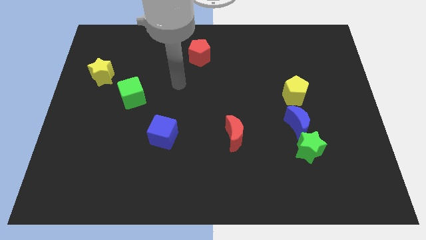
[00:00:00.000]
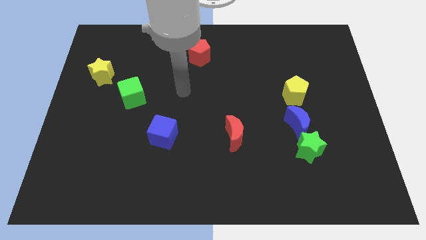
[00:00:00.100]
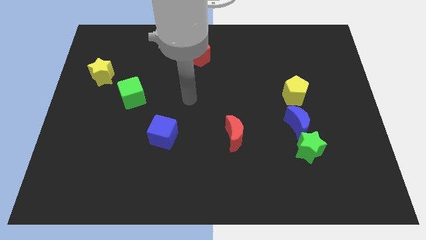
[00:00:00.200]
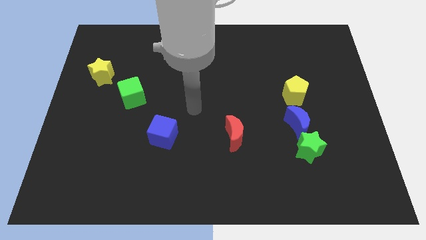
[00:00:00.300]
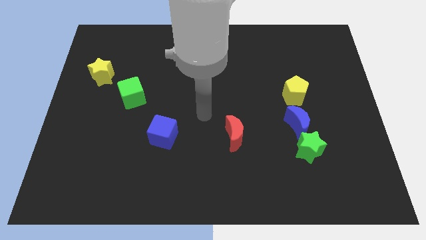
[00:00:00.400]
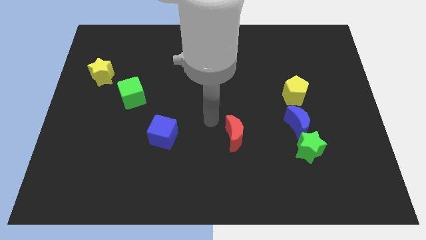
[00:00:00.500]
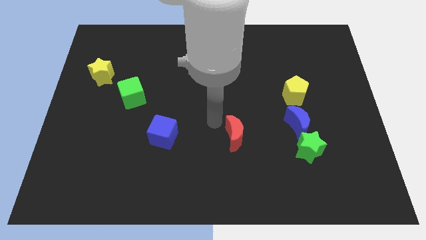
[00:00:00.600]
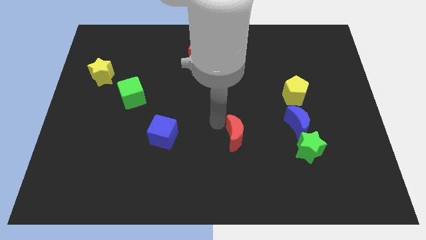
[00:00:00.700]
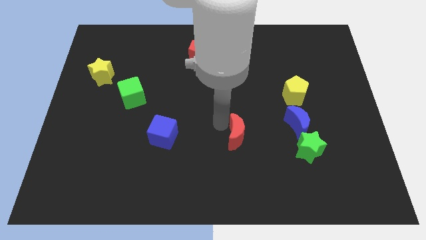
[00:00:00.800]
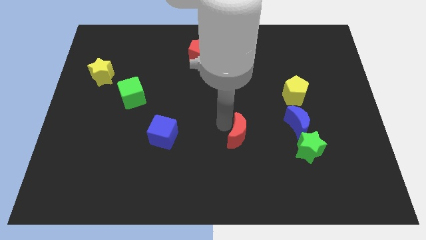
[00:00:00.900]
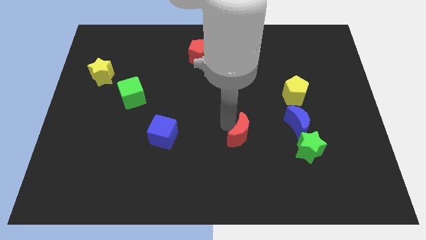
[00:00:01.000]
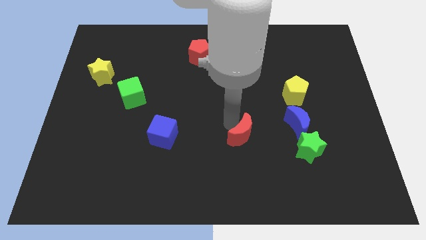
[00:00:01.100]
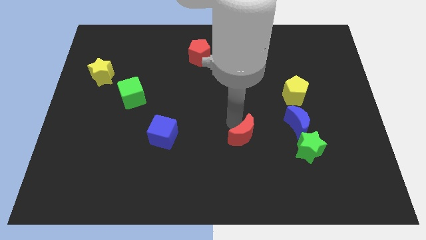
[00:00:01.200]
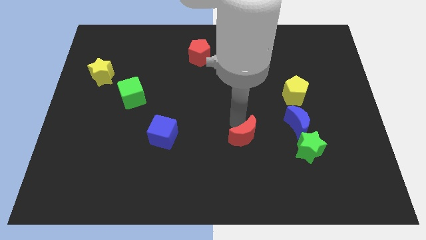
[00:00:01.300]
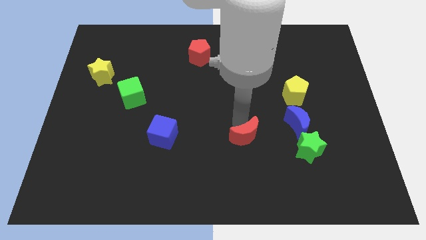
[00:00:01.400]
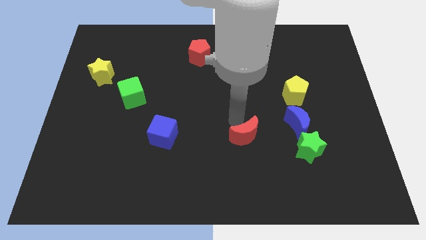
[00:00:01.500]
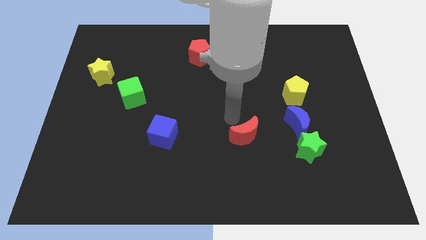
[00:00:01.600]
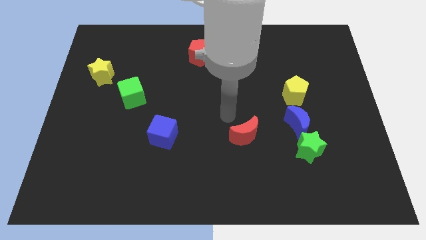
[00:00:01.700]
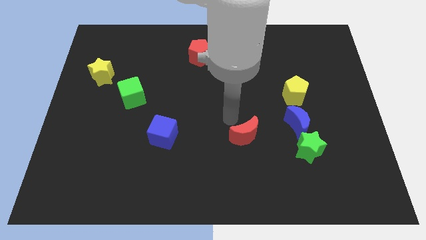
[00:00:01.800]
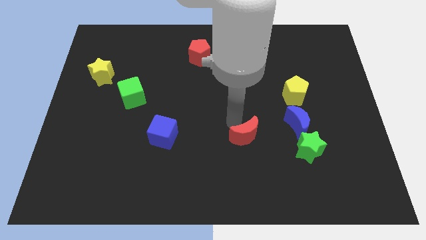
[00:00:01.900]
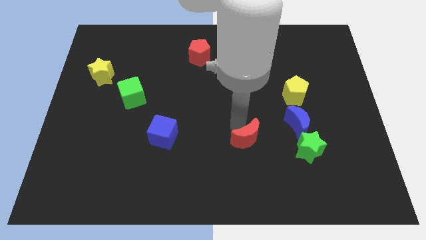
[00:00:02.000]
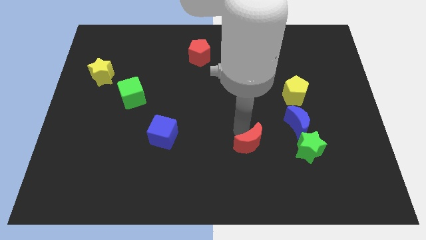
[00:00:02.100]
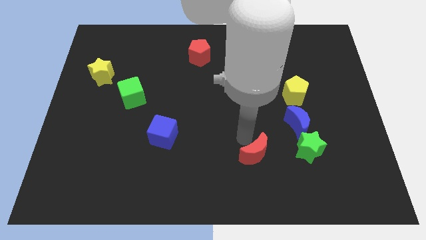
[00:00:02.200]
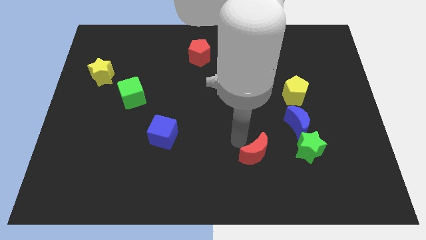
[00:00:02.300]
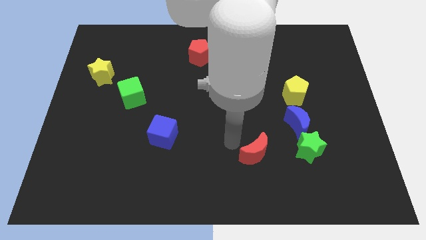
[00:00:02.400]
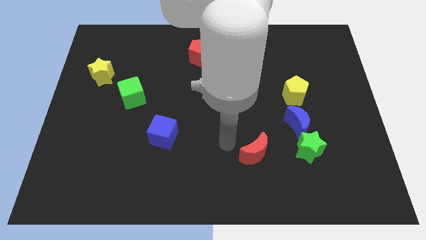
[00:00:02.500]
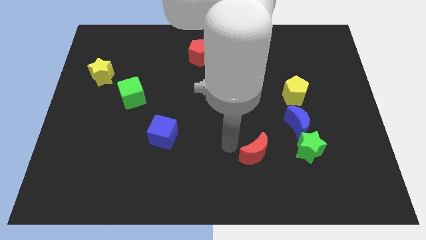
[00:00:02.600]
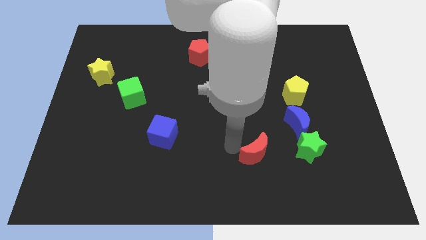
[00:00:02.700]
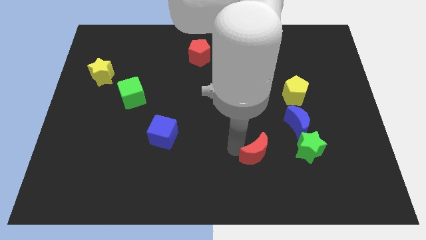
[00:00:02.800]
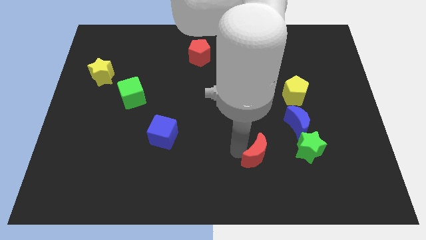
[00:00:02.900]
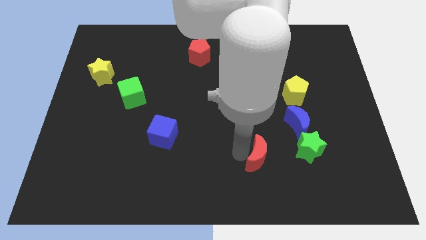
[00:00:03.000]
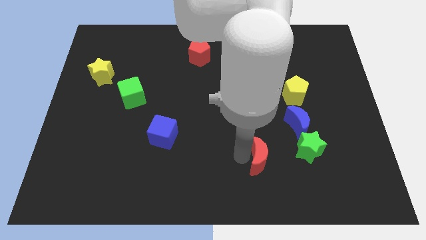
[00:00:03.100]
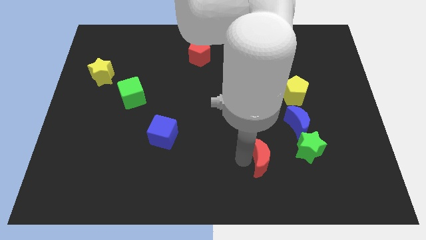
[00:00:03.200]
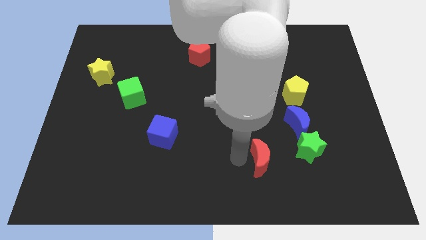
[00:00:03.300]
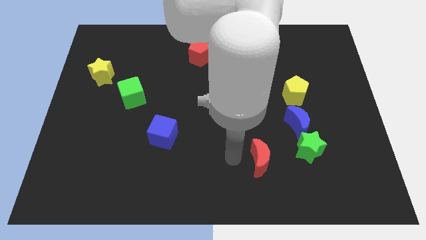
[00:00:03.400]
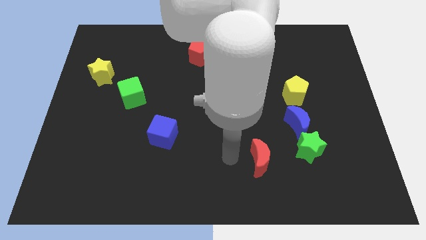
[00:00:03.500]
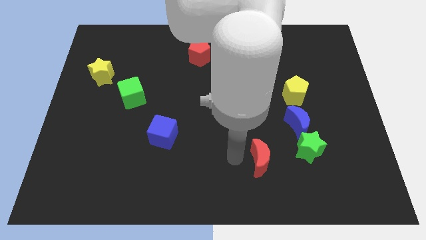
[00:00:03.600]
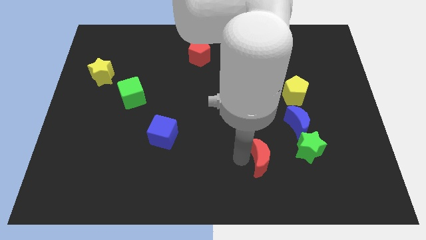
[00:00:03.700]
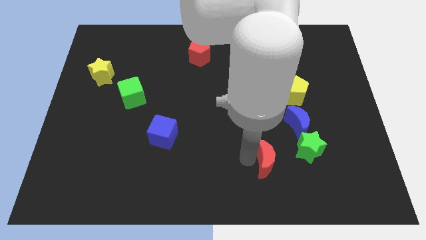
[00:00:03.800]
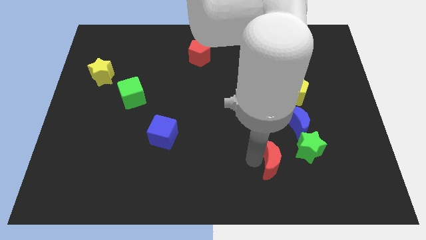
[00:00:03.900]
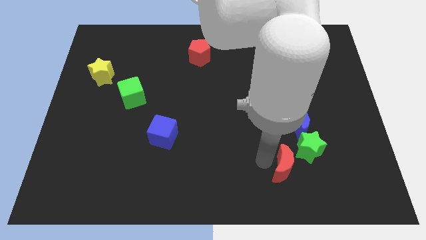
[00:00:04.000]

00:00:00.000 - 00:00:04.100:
slightly move the red moon right

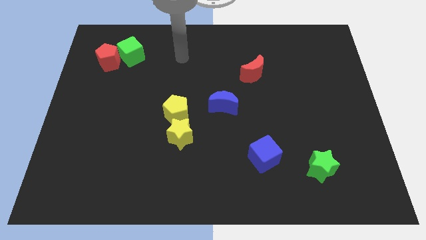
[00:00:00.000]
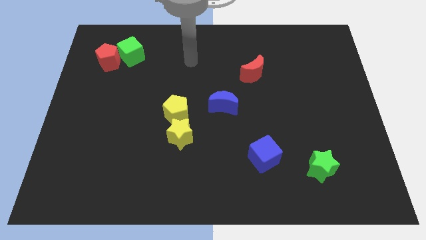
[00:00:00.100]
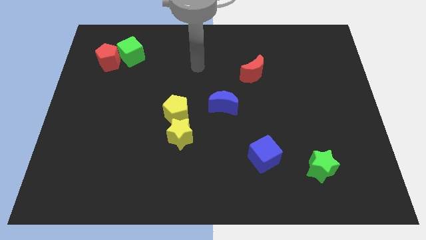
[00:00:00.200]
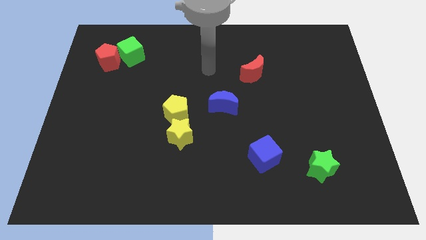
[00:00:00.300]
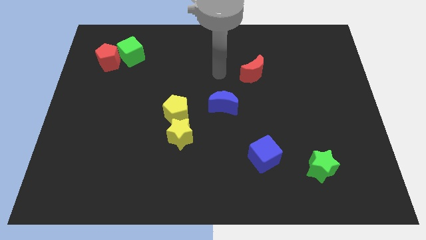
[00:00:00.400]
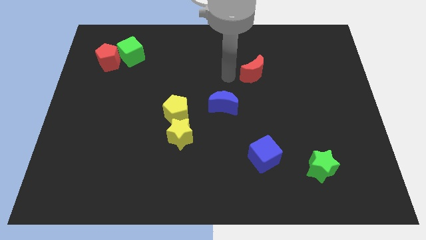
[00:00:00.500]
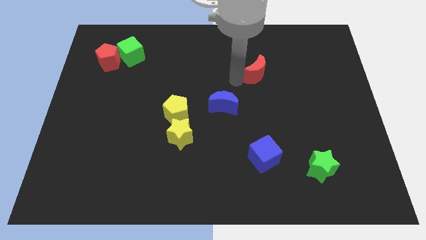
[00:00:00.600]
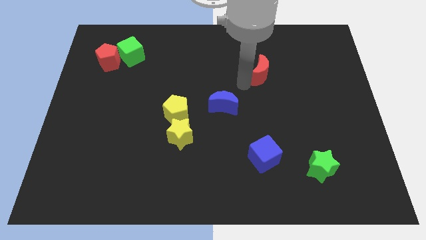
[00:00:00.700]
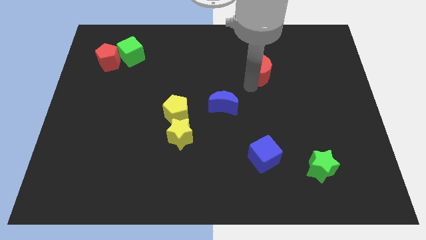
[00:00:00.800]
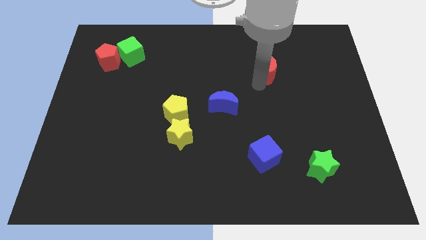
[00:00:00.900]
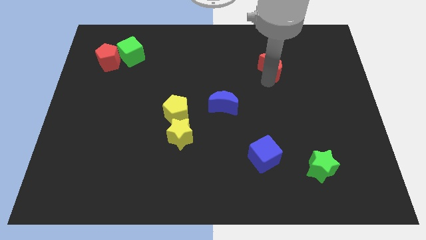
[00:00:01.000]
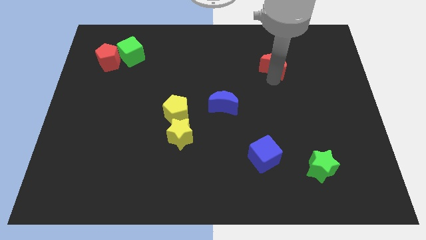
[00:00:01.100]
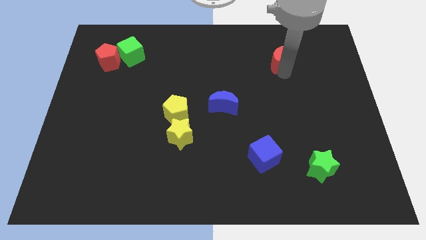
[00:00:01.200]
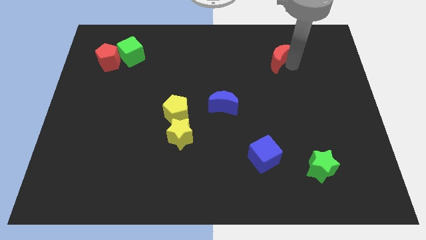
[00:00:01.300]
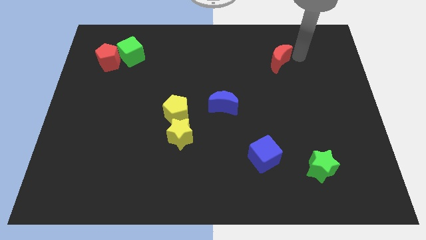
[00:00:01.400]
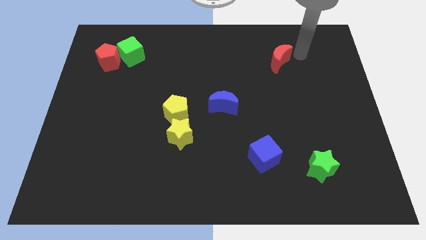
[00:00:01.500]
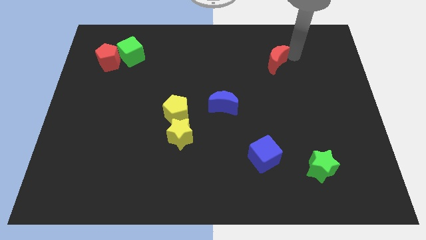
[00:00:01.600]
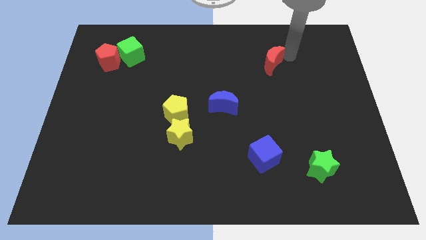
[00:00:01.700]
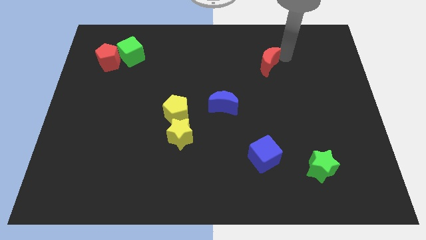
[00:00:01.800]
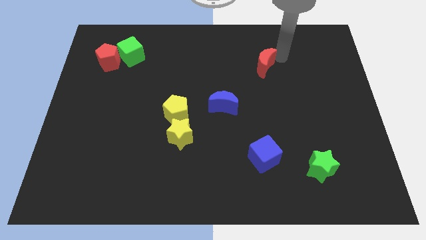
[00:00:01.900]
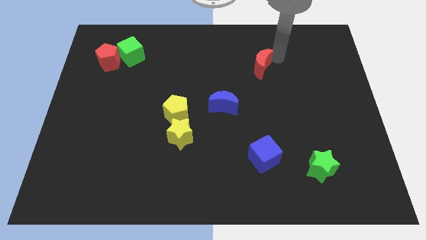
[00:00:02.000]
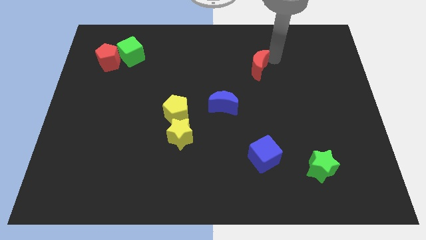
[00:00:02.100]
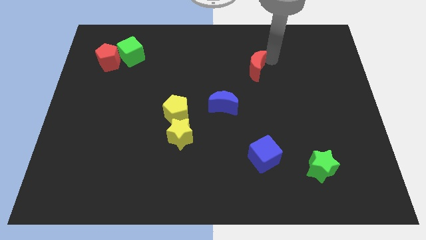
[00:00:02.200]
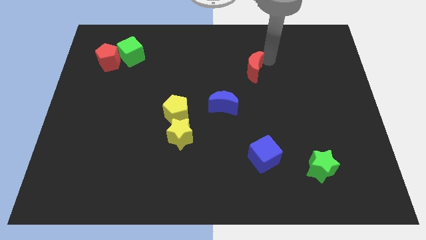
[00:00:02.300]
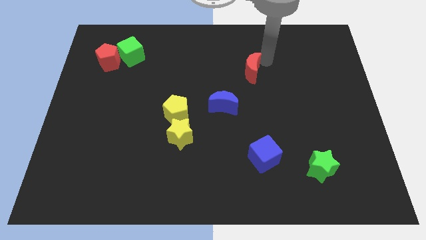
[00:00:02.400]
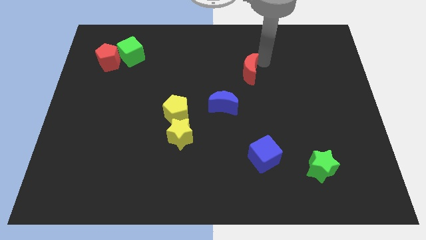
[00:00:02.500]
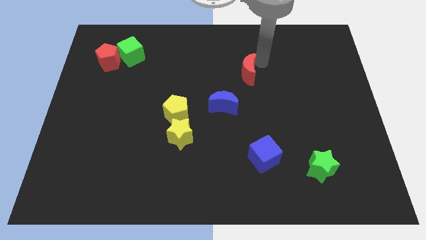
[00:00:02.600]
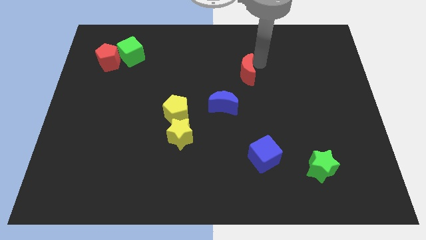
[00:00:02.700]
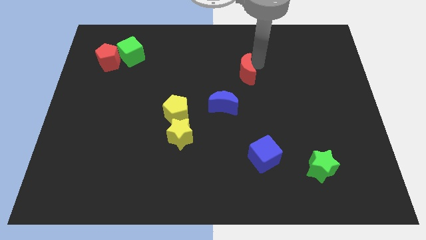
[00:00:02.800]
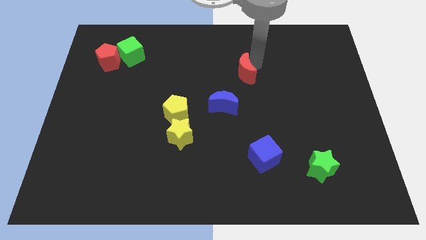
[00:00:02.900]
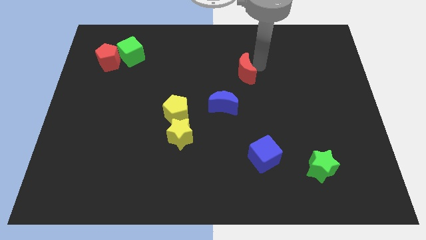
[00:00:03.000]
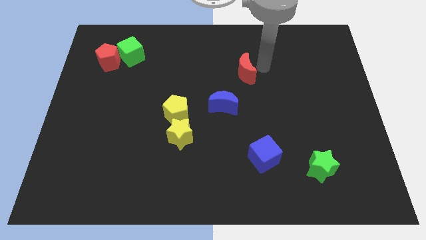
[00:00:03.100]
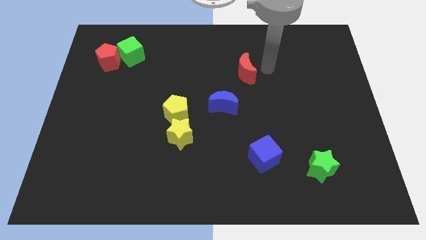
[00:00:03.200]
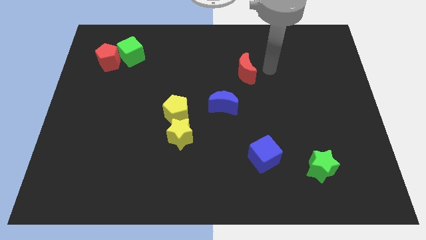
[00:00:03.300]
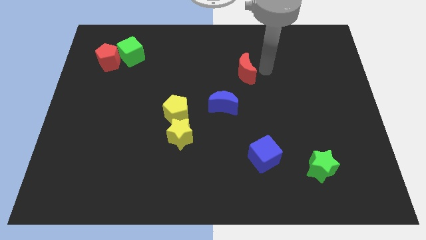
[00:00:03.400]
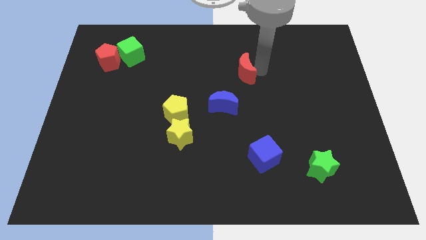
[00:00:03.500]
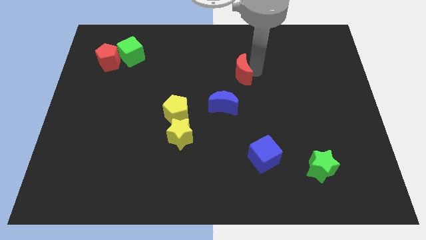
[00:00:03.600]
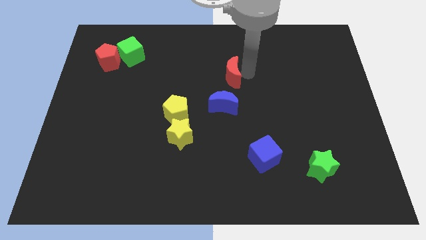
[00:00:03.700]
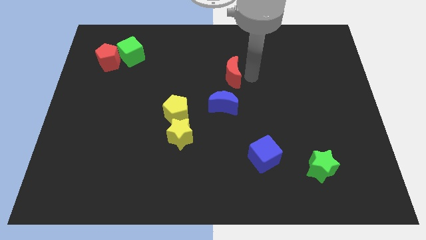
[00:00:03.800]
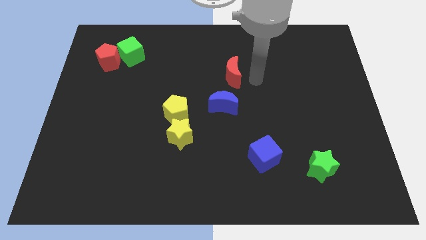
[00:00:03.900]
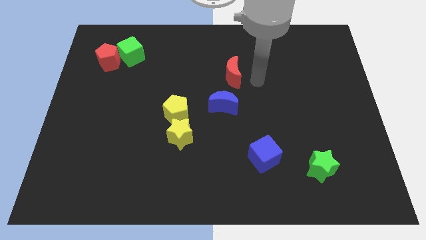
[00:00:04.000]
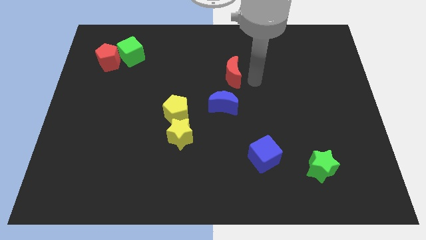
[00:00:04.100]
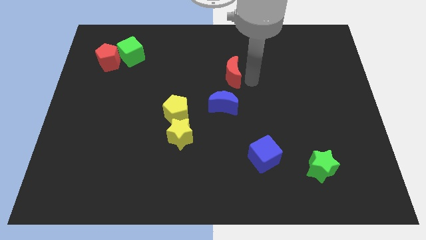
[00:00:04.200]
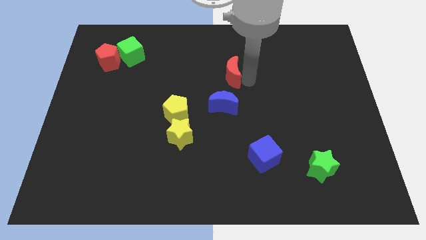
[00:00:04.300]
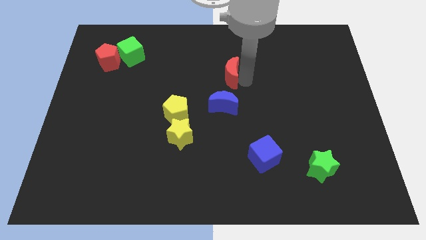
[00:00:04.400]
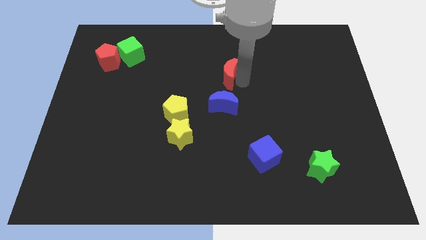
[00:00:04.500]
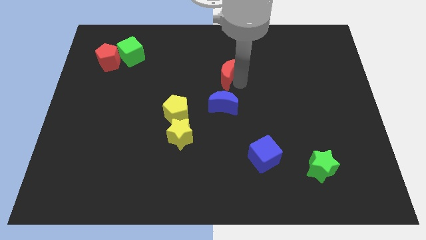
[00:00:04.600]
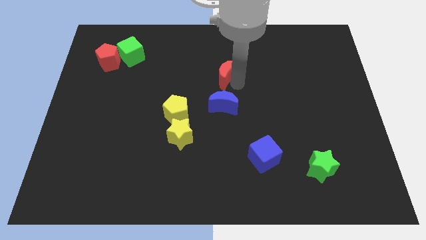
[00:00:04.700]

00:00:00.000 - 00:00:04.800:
slide the red moon left a little
